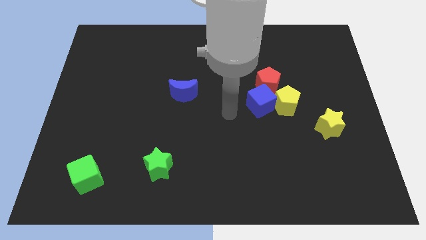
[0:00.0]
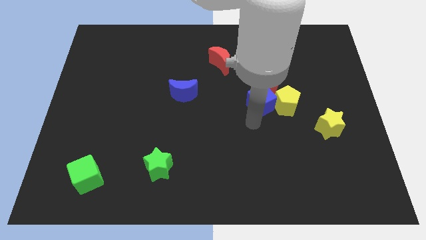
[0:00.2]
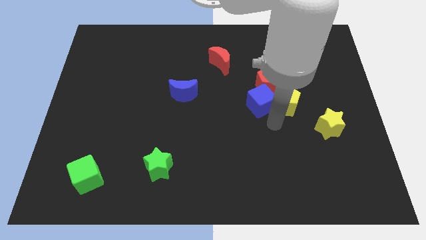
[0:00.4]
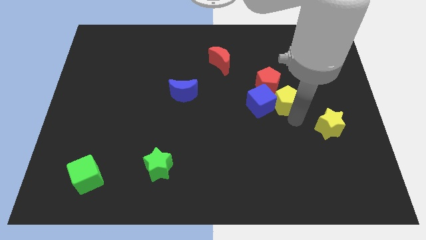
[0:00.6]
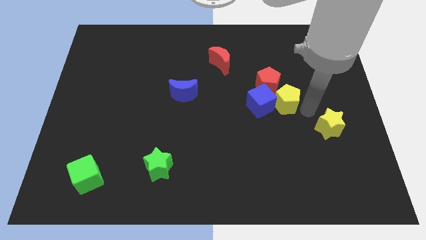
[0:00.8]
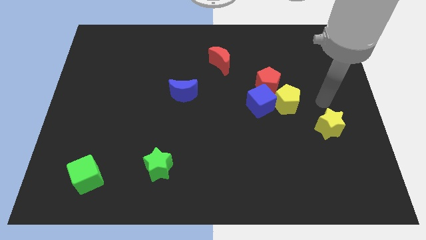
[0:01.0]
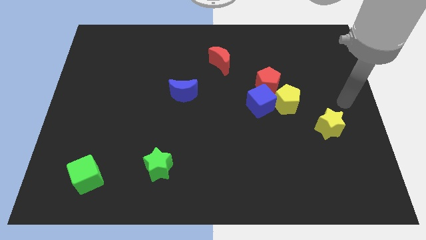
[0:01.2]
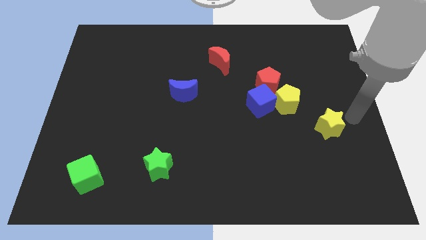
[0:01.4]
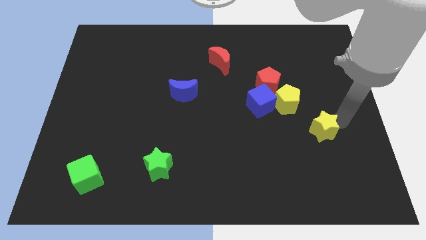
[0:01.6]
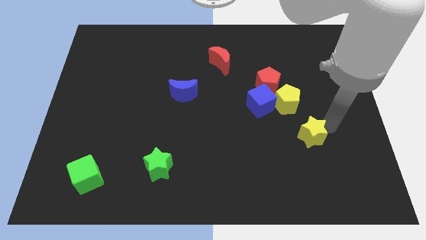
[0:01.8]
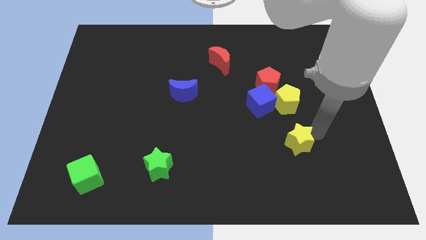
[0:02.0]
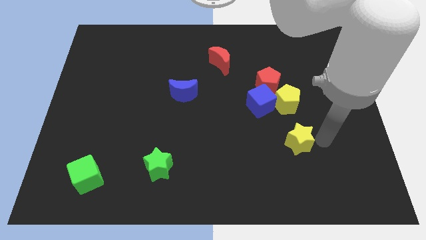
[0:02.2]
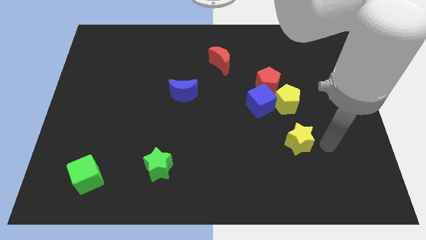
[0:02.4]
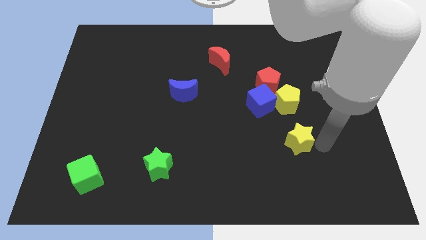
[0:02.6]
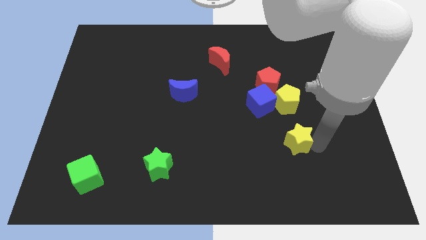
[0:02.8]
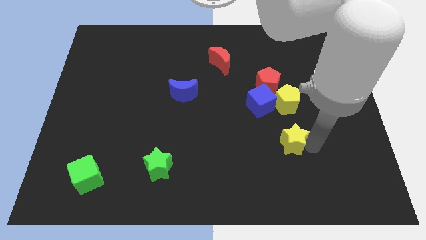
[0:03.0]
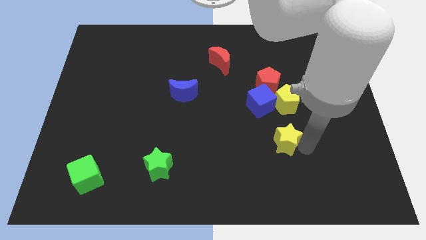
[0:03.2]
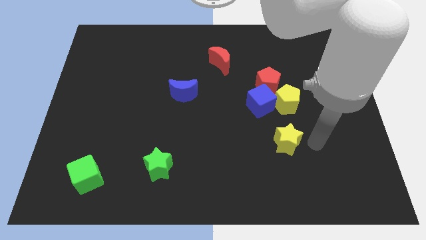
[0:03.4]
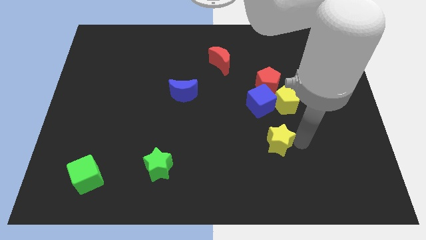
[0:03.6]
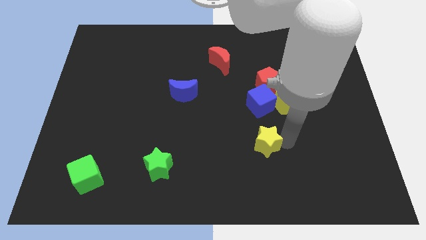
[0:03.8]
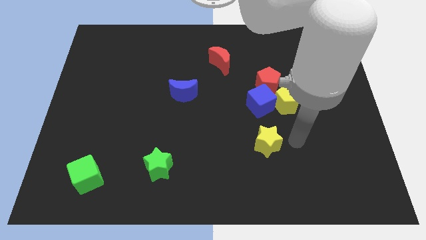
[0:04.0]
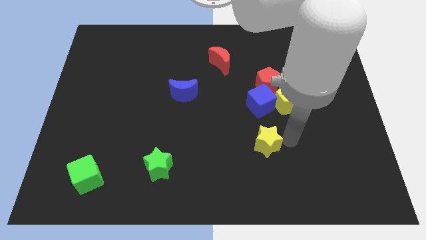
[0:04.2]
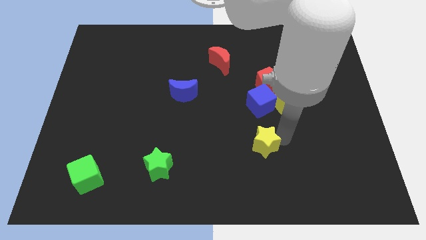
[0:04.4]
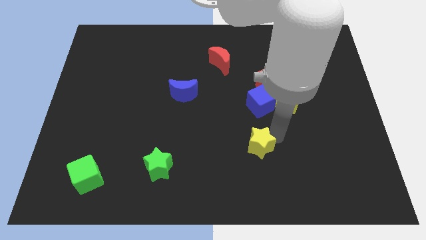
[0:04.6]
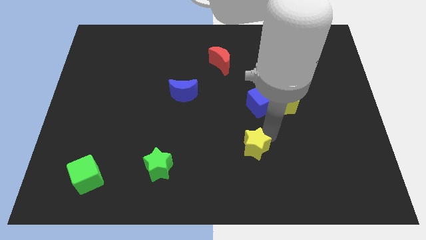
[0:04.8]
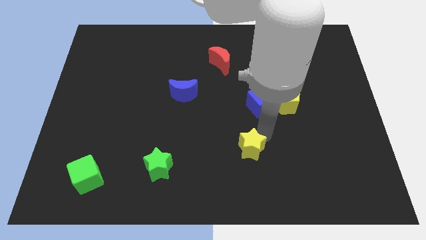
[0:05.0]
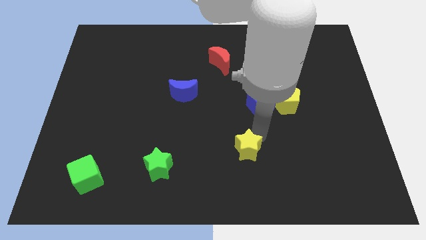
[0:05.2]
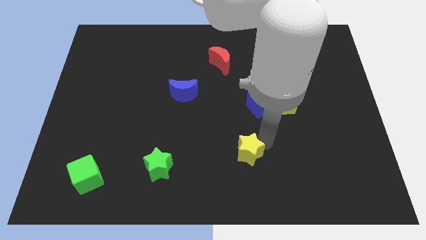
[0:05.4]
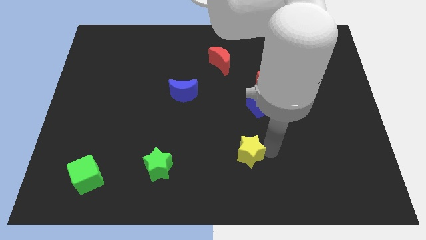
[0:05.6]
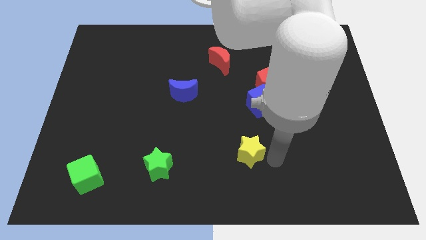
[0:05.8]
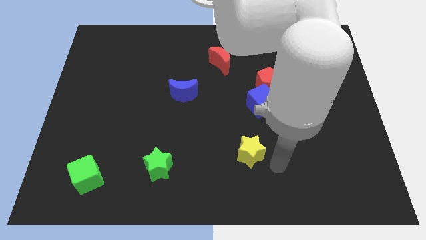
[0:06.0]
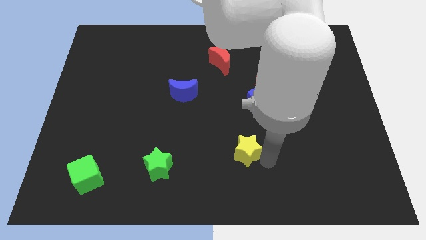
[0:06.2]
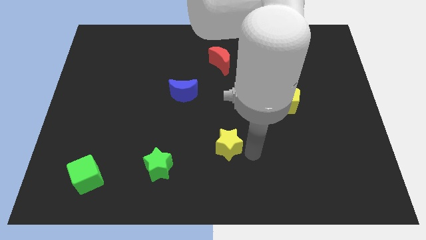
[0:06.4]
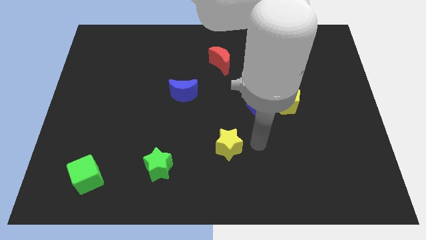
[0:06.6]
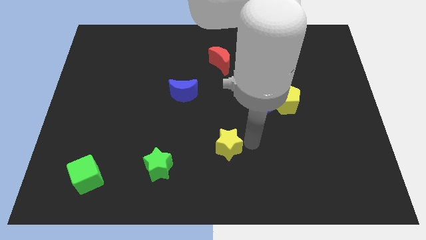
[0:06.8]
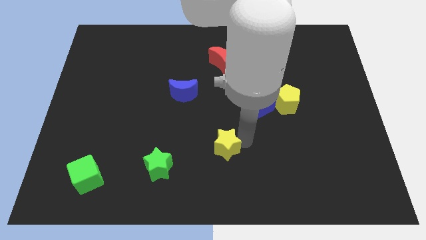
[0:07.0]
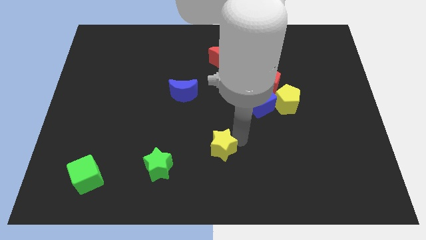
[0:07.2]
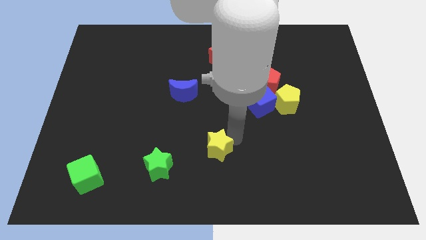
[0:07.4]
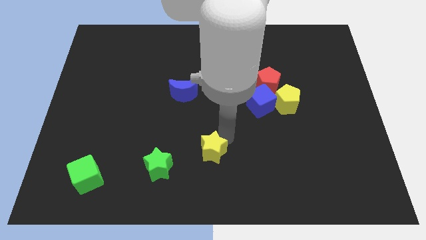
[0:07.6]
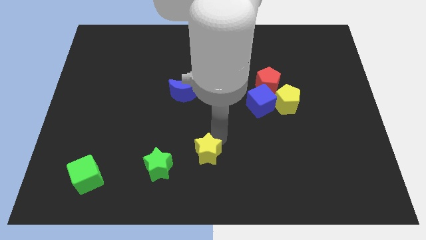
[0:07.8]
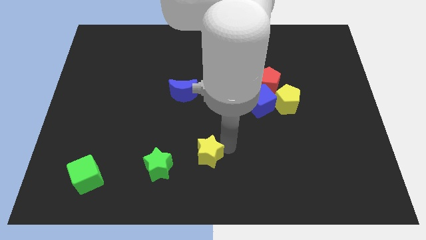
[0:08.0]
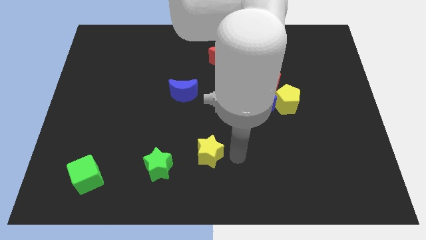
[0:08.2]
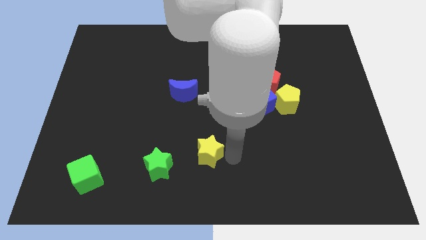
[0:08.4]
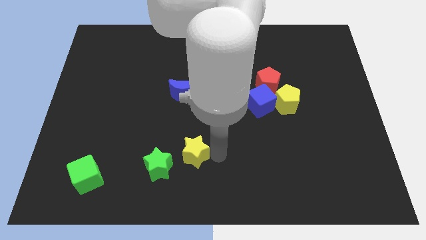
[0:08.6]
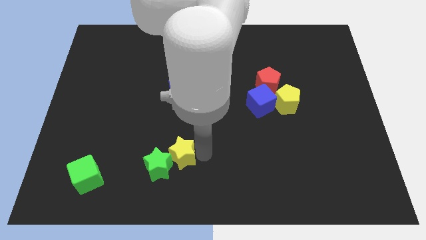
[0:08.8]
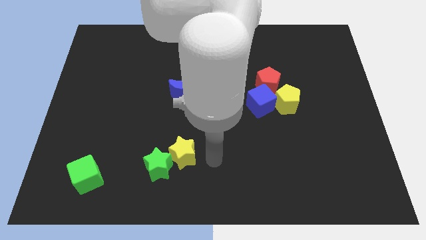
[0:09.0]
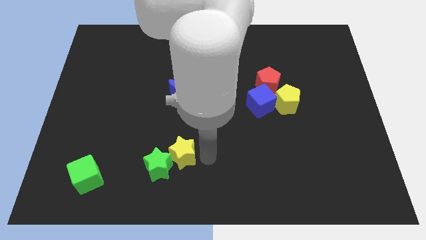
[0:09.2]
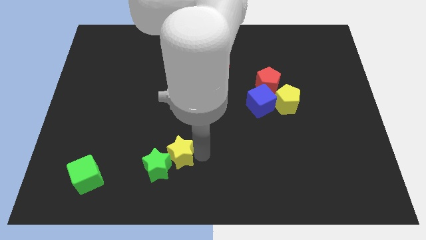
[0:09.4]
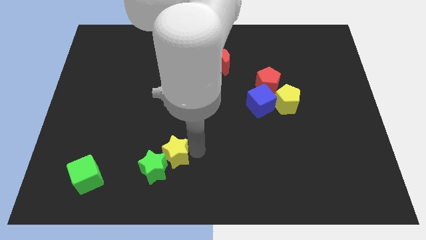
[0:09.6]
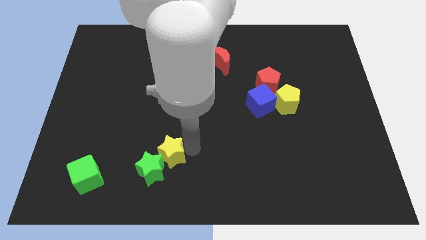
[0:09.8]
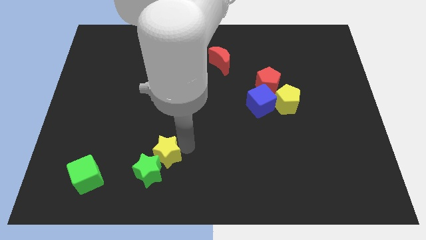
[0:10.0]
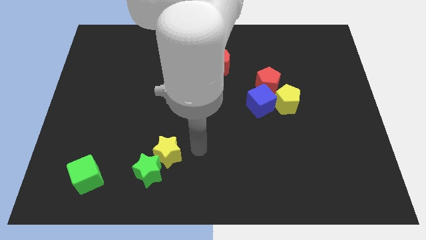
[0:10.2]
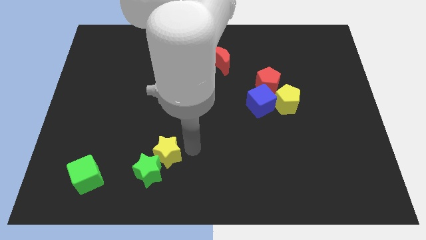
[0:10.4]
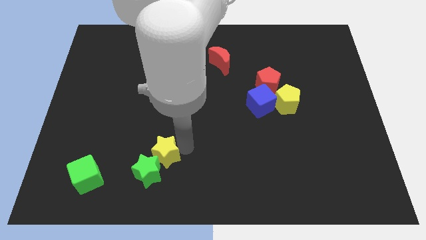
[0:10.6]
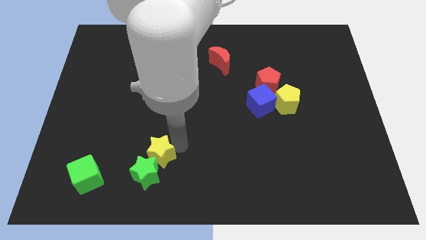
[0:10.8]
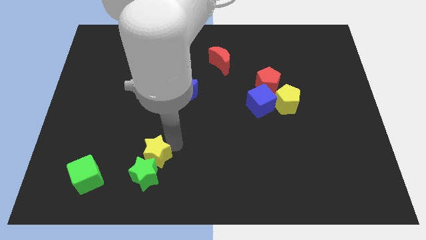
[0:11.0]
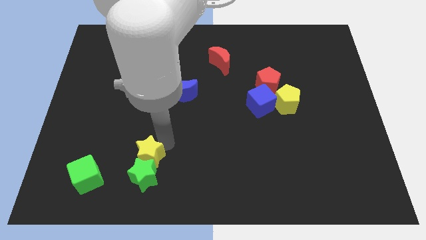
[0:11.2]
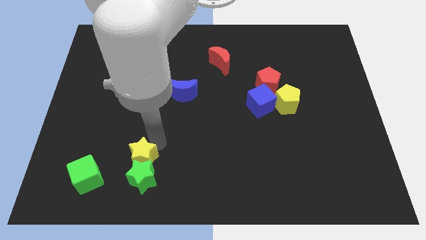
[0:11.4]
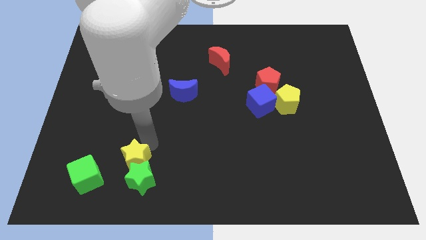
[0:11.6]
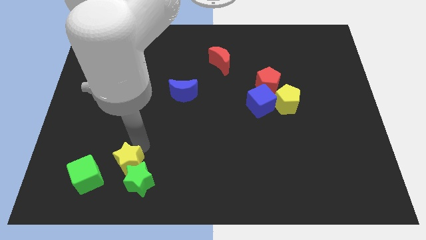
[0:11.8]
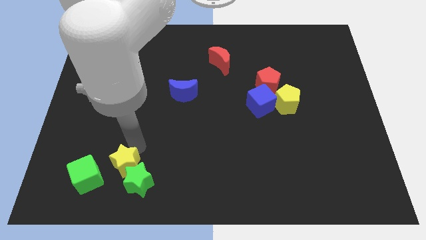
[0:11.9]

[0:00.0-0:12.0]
move the yellow star to the left side of the green star

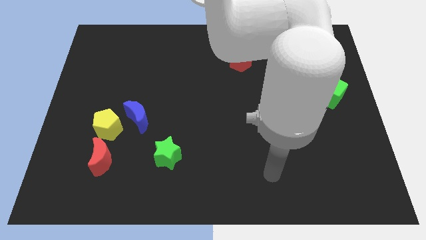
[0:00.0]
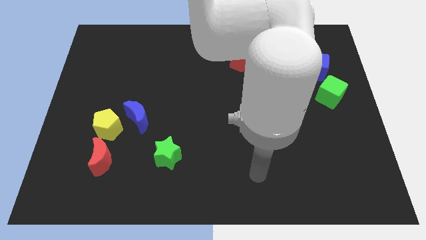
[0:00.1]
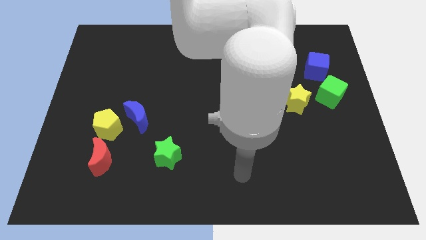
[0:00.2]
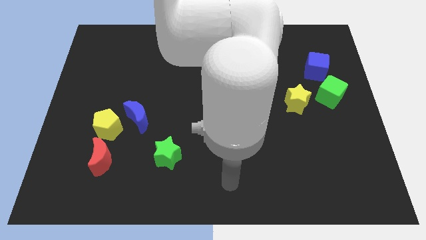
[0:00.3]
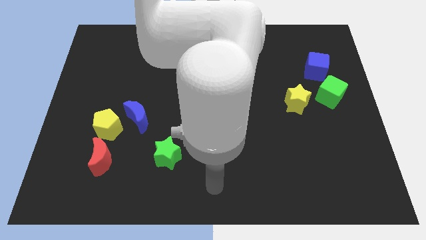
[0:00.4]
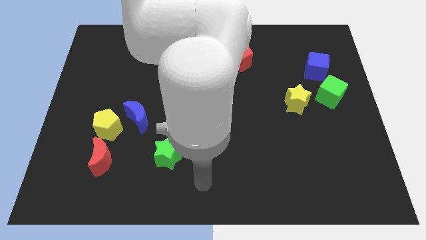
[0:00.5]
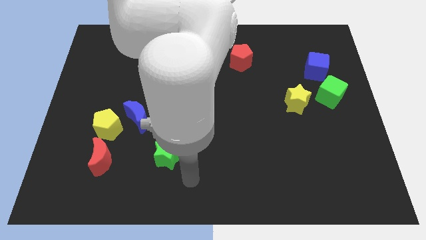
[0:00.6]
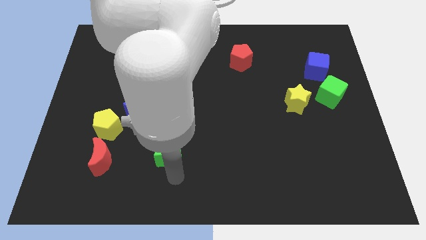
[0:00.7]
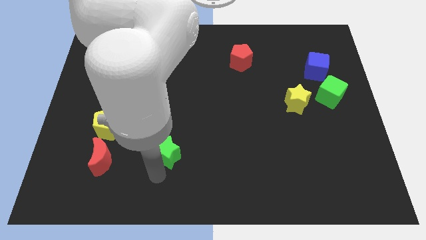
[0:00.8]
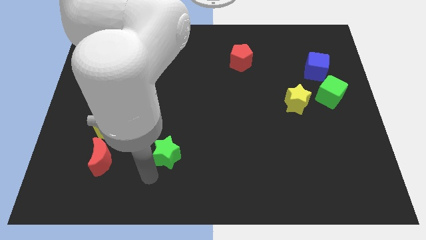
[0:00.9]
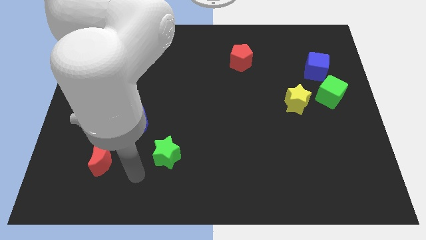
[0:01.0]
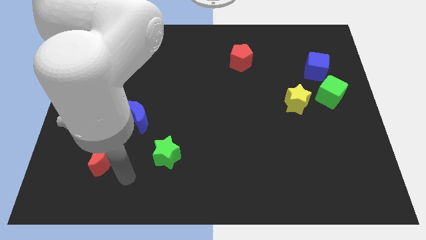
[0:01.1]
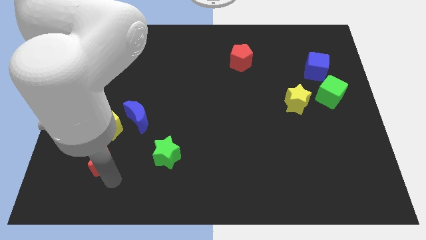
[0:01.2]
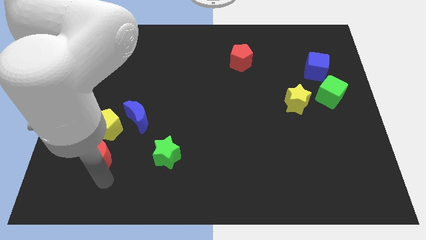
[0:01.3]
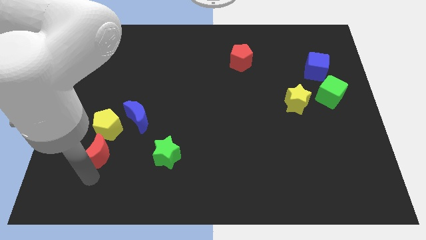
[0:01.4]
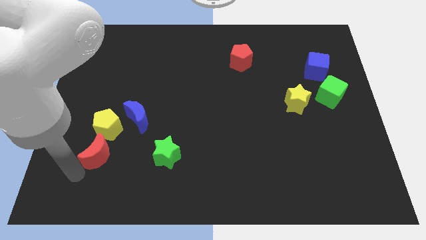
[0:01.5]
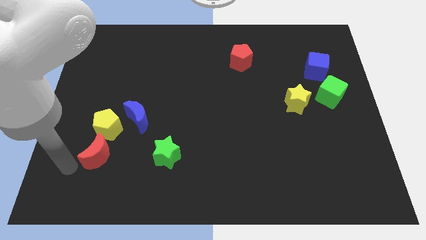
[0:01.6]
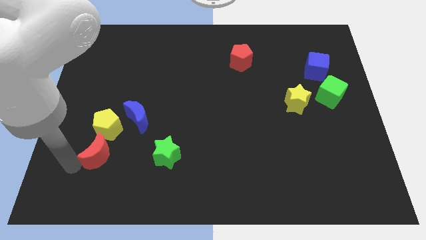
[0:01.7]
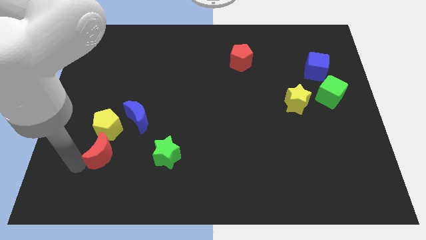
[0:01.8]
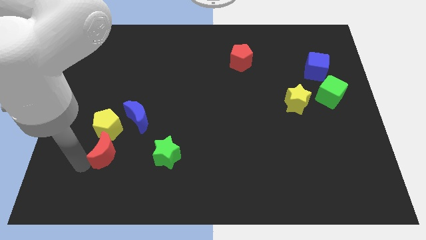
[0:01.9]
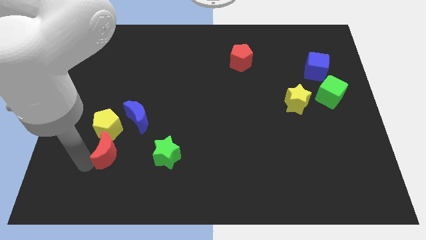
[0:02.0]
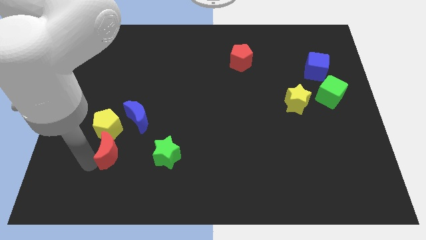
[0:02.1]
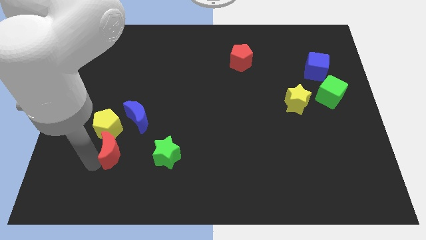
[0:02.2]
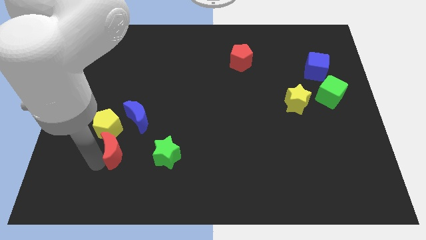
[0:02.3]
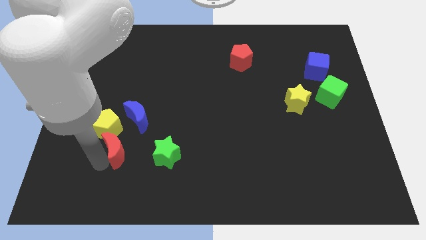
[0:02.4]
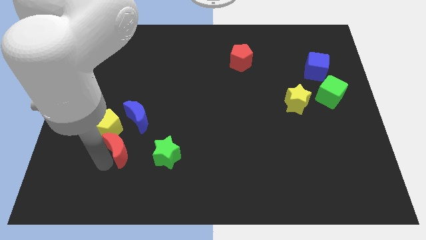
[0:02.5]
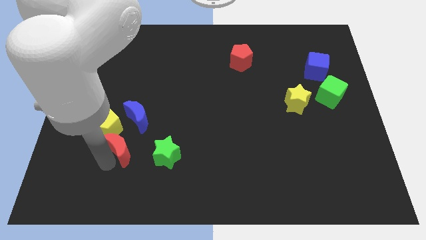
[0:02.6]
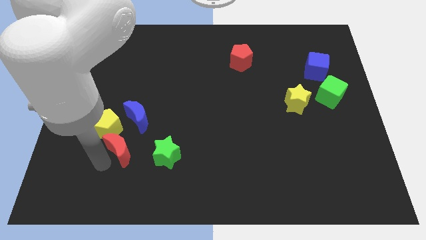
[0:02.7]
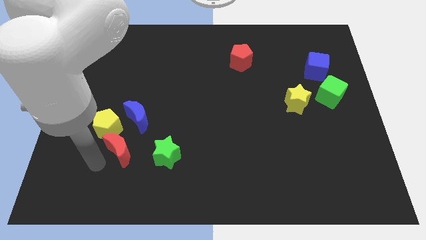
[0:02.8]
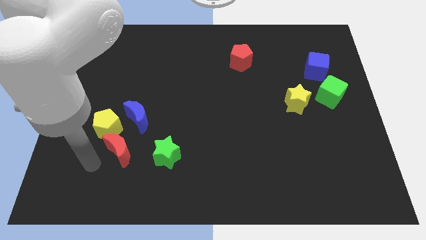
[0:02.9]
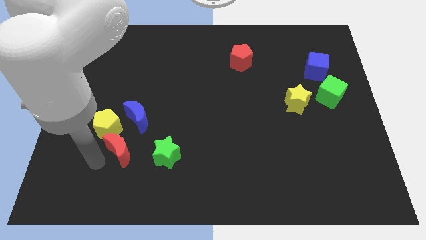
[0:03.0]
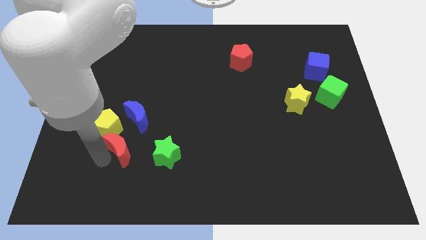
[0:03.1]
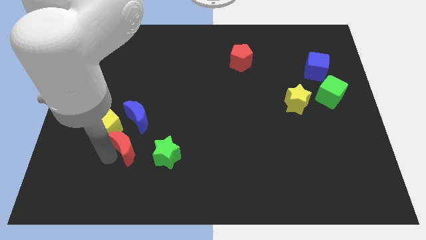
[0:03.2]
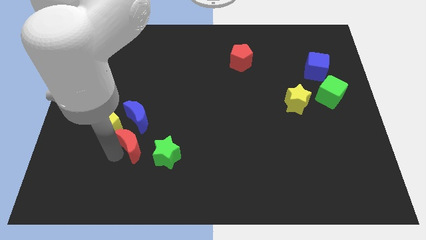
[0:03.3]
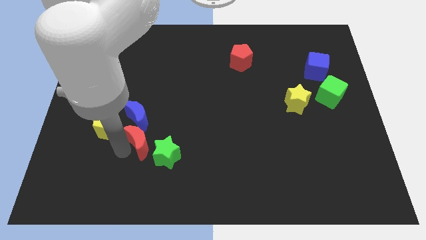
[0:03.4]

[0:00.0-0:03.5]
put the red moon diagonally down and to the right of the blue moon
